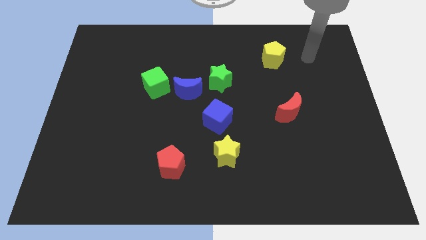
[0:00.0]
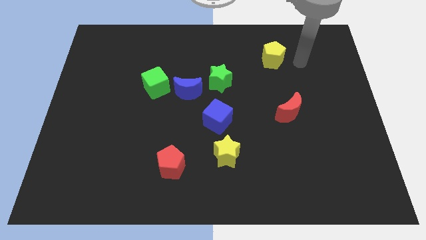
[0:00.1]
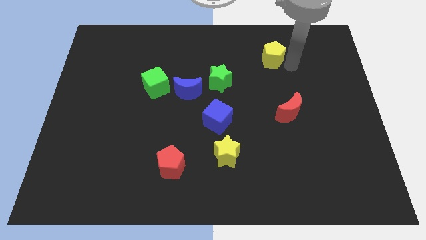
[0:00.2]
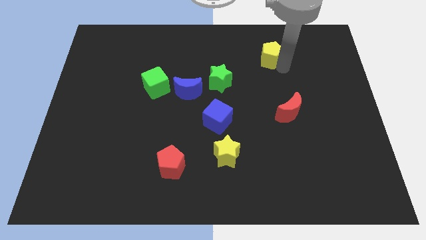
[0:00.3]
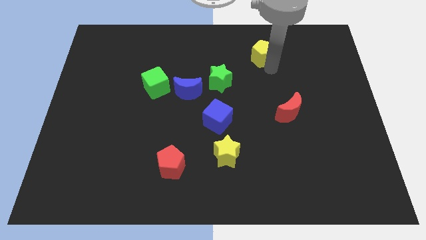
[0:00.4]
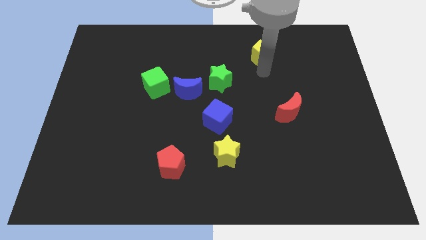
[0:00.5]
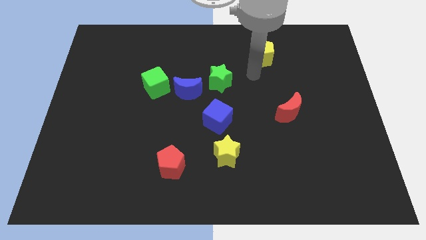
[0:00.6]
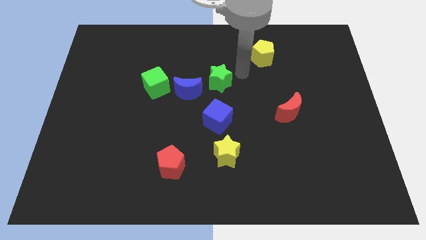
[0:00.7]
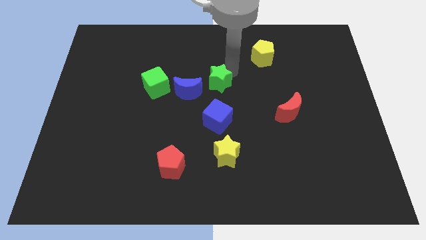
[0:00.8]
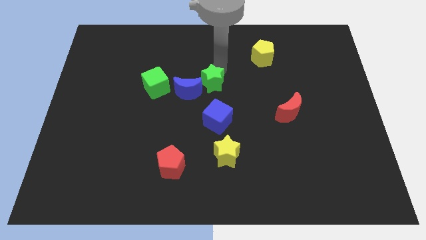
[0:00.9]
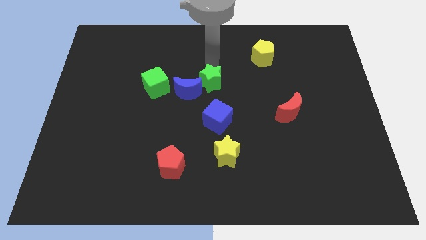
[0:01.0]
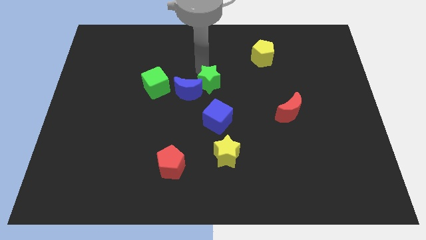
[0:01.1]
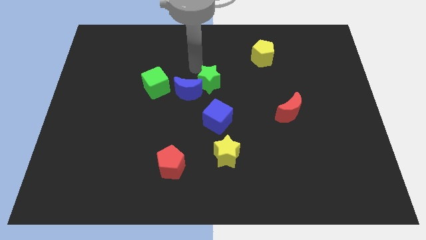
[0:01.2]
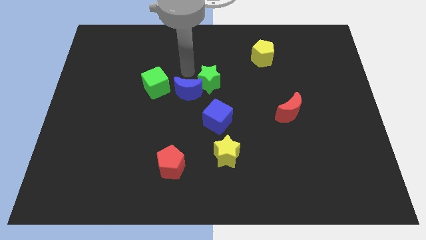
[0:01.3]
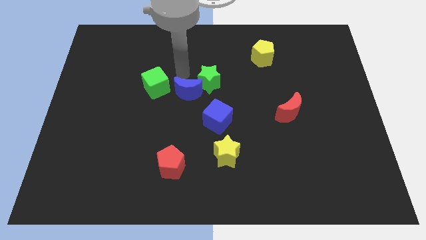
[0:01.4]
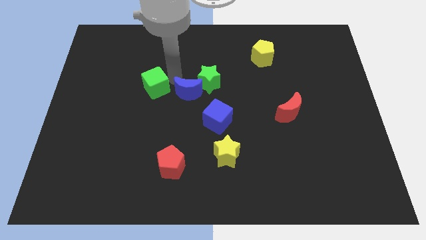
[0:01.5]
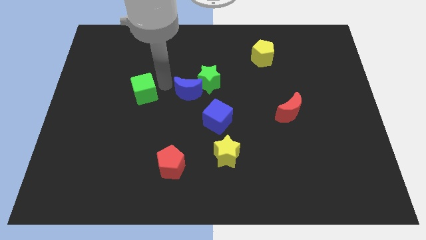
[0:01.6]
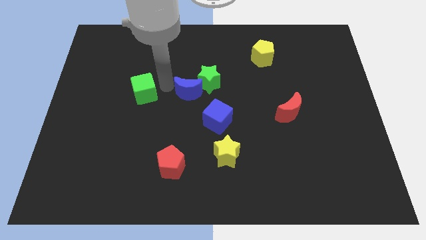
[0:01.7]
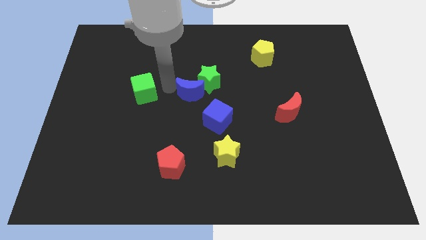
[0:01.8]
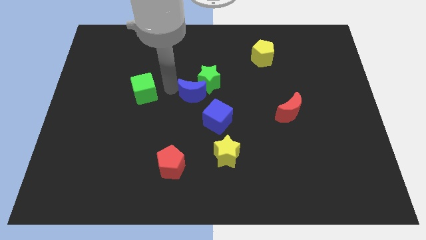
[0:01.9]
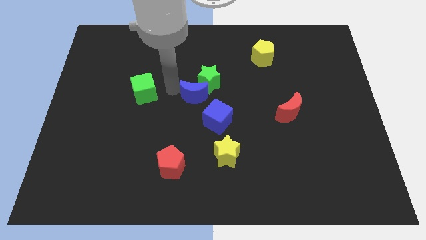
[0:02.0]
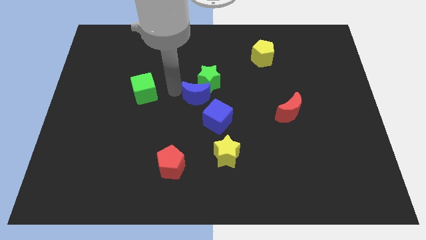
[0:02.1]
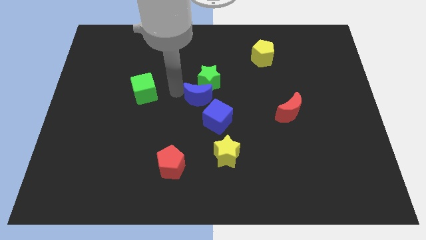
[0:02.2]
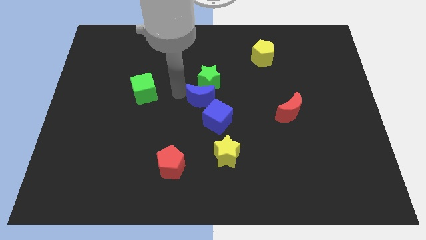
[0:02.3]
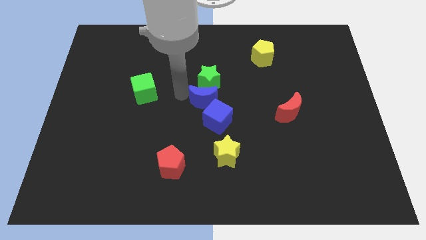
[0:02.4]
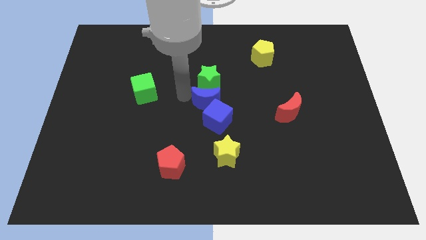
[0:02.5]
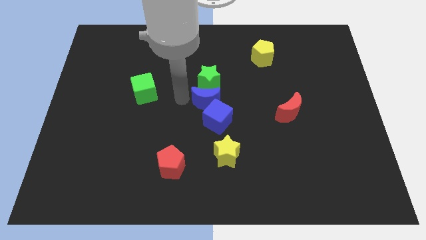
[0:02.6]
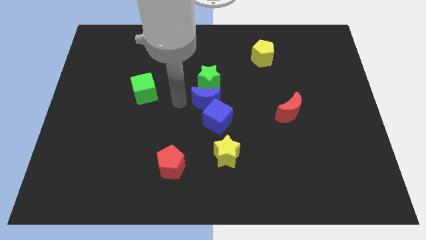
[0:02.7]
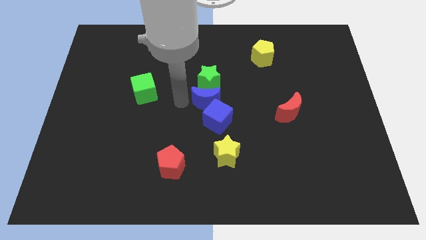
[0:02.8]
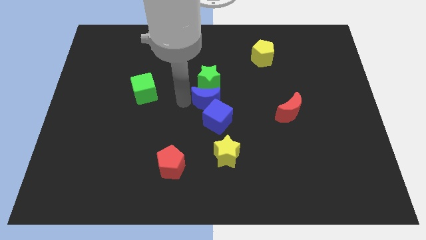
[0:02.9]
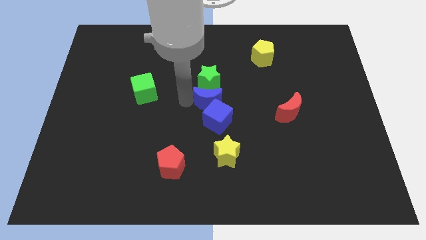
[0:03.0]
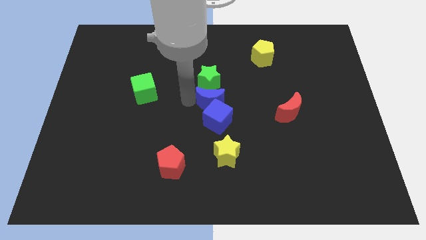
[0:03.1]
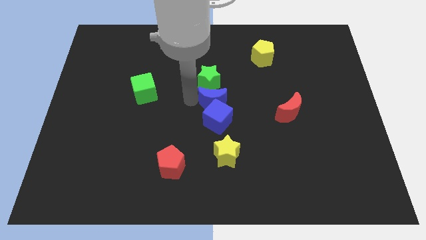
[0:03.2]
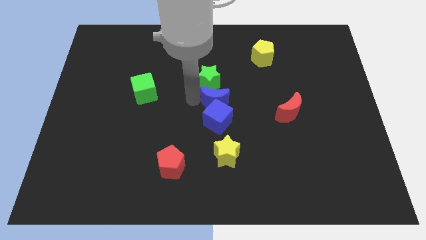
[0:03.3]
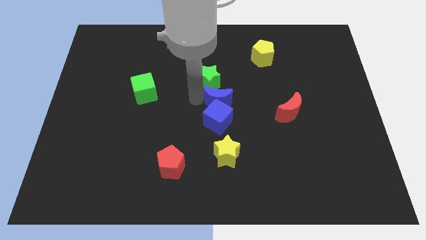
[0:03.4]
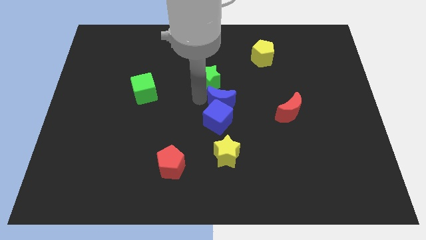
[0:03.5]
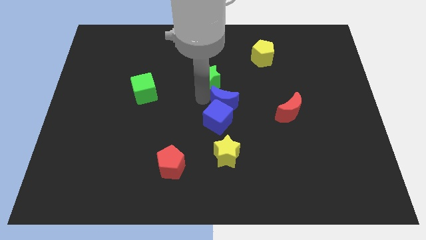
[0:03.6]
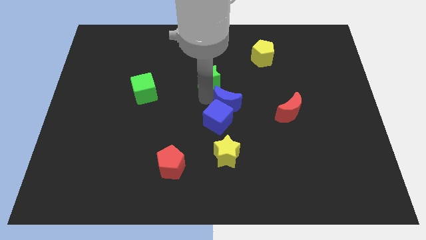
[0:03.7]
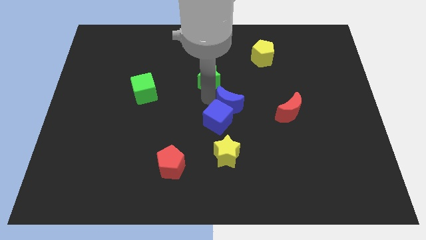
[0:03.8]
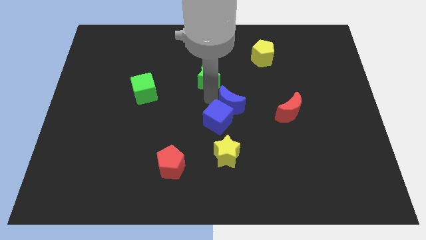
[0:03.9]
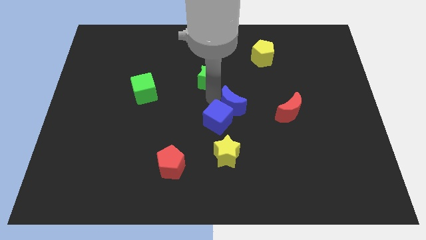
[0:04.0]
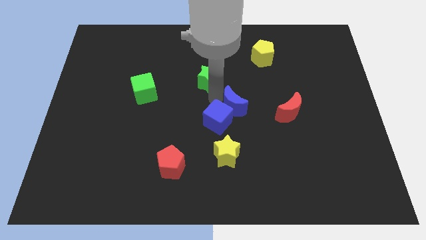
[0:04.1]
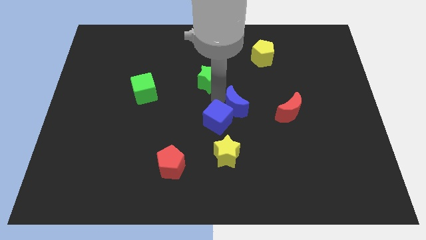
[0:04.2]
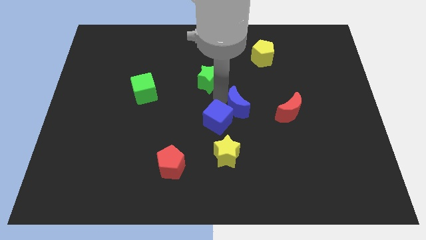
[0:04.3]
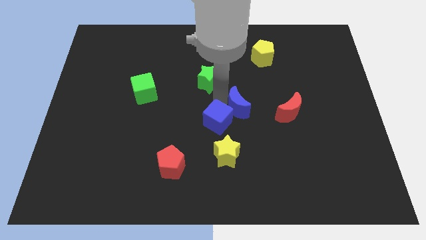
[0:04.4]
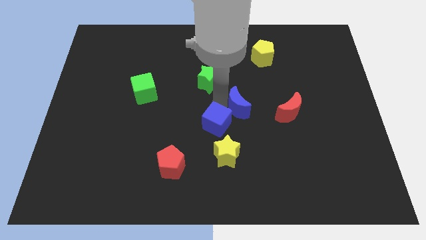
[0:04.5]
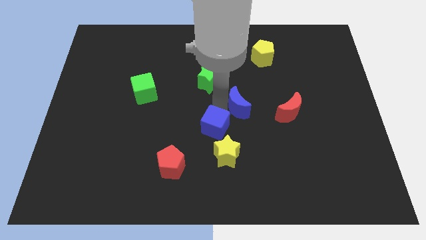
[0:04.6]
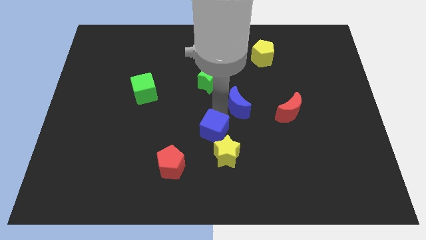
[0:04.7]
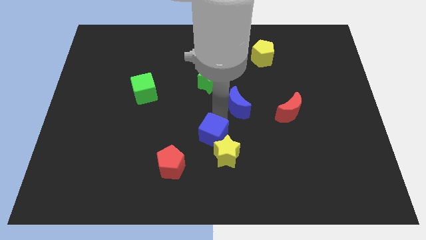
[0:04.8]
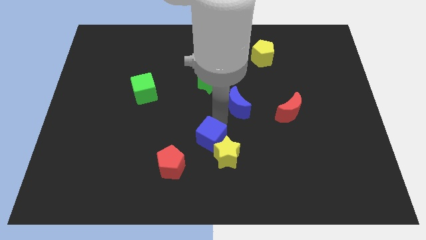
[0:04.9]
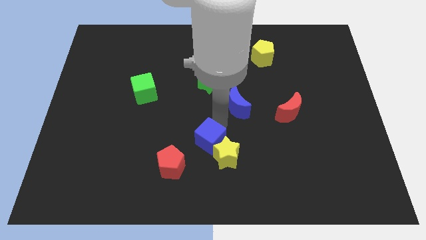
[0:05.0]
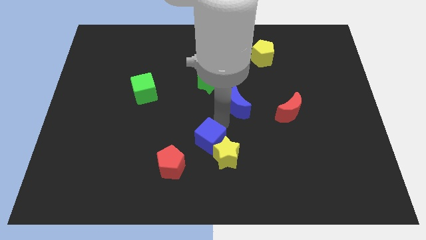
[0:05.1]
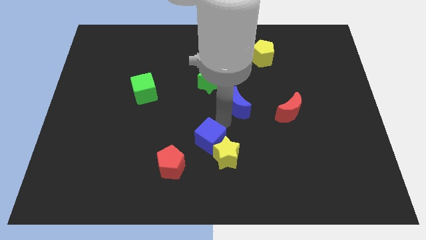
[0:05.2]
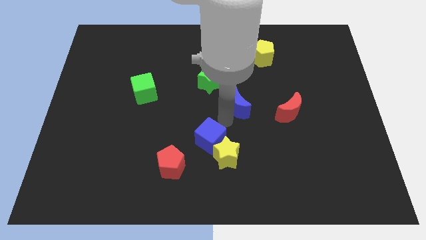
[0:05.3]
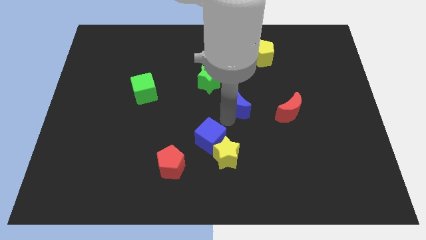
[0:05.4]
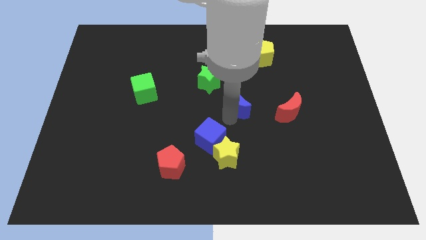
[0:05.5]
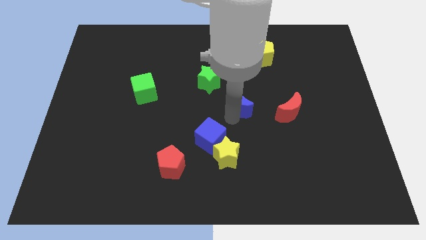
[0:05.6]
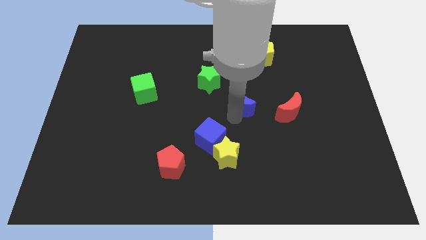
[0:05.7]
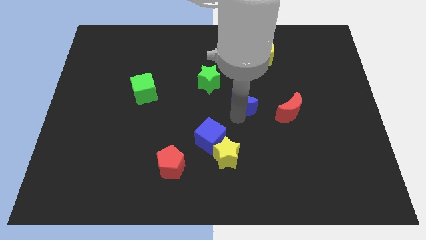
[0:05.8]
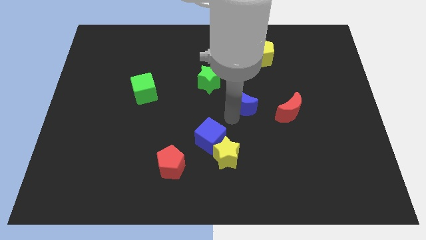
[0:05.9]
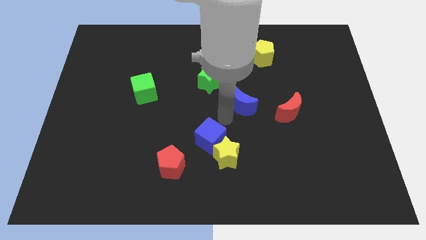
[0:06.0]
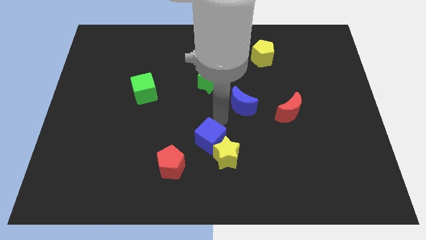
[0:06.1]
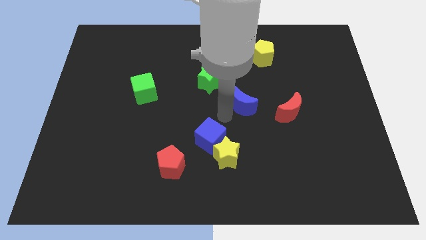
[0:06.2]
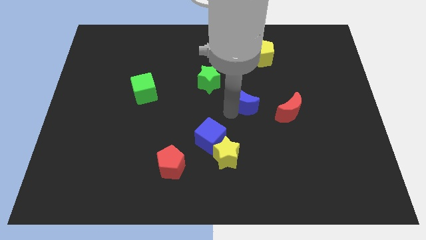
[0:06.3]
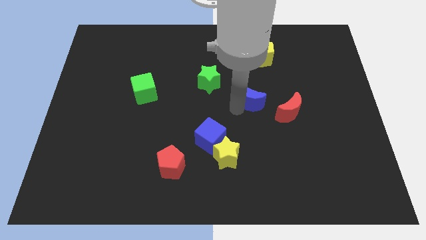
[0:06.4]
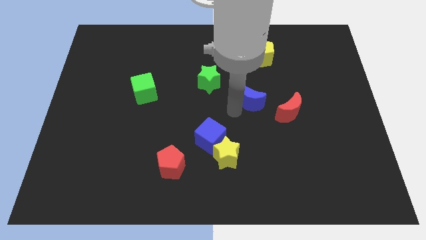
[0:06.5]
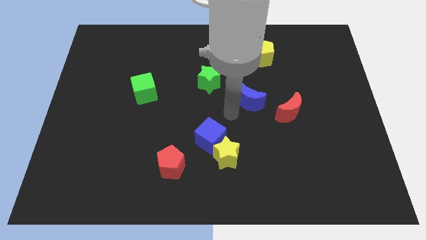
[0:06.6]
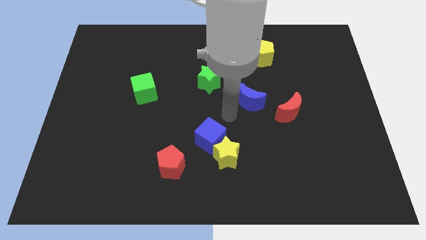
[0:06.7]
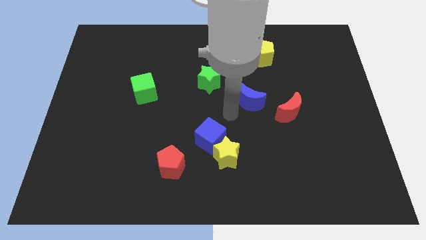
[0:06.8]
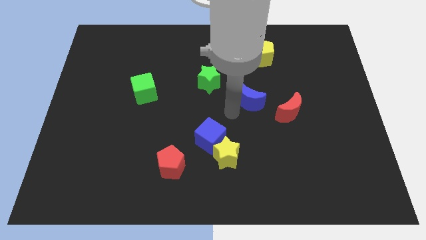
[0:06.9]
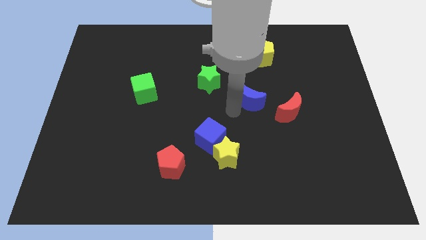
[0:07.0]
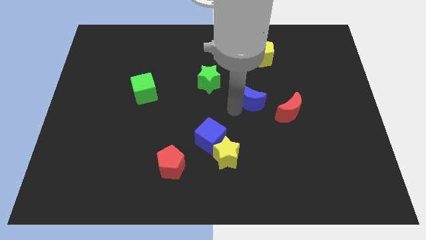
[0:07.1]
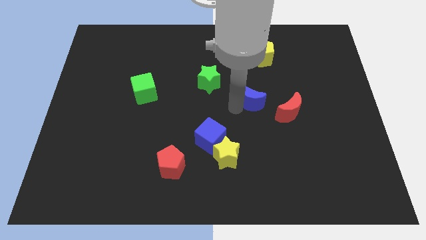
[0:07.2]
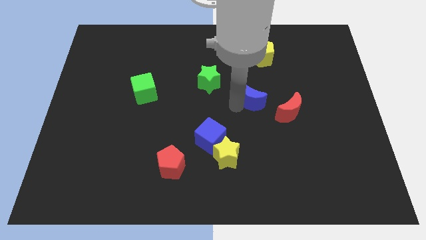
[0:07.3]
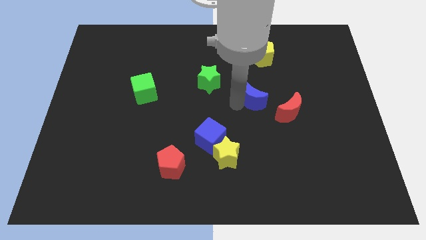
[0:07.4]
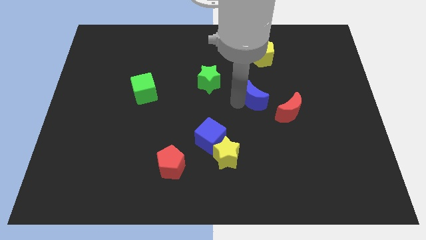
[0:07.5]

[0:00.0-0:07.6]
move the blue moon to the bottom of the yellow pentagon
